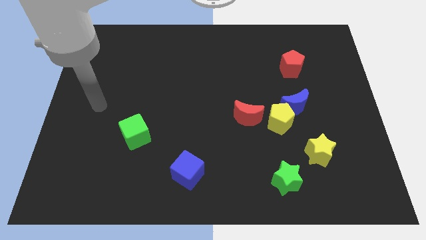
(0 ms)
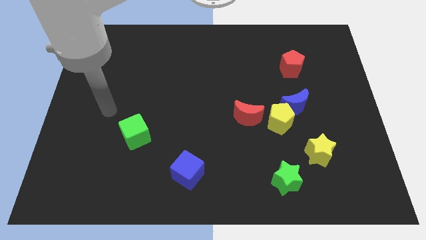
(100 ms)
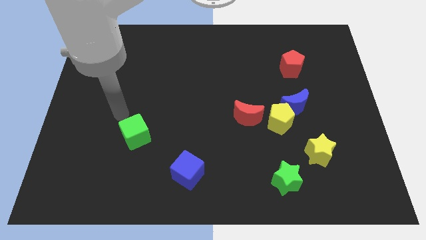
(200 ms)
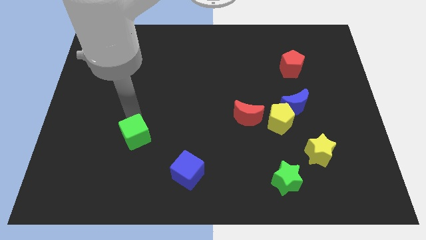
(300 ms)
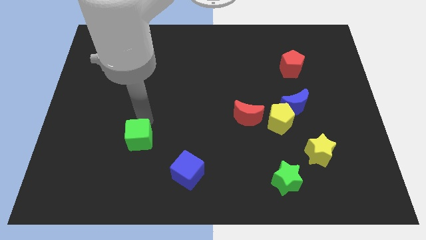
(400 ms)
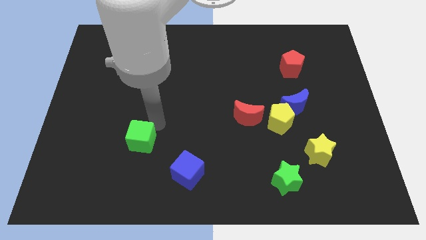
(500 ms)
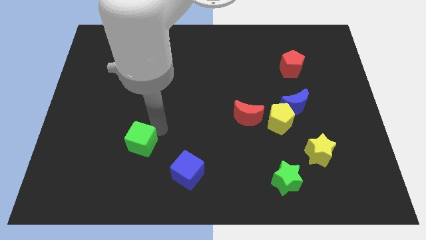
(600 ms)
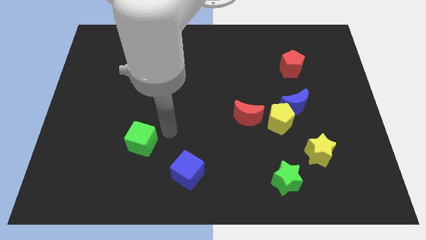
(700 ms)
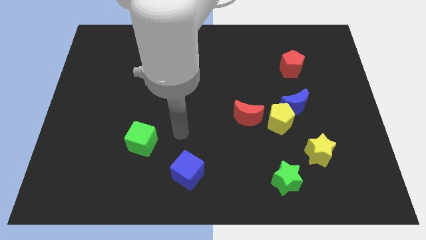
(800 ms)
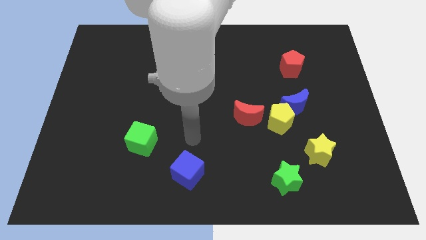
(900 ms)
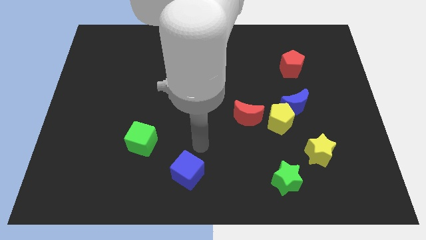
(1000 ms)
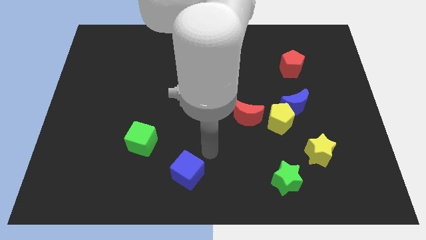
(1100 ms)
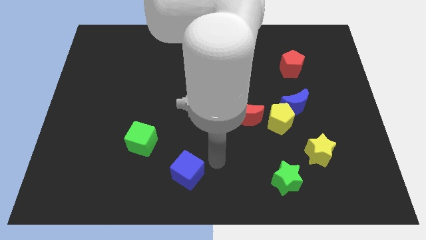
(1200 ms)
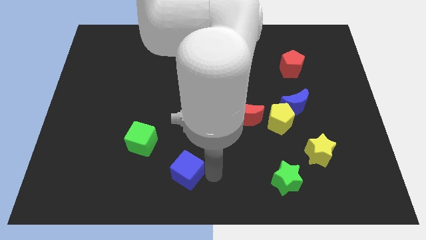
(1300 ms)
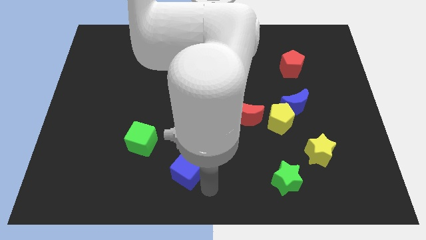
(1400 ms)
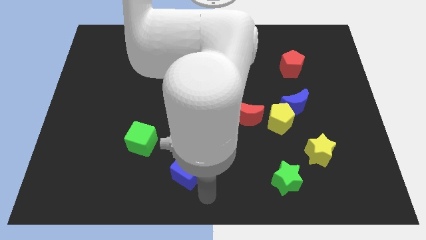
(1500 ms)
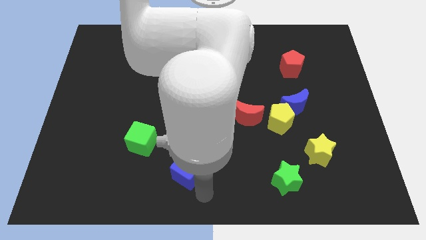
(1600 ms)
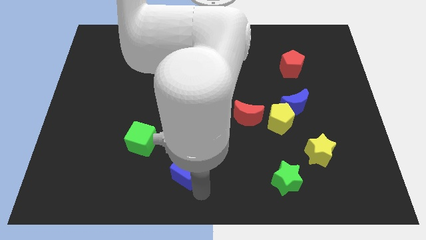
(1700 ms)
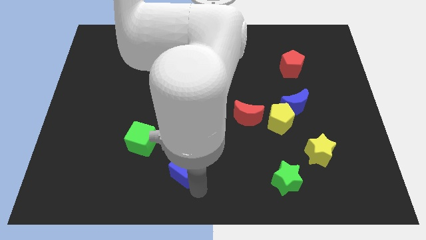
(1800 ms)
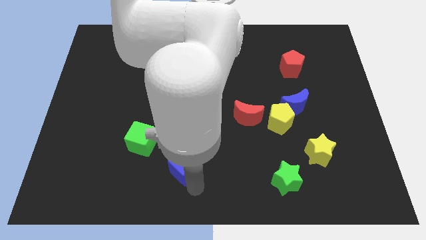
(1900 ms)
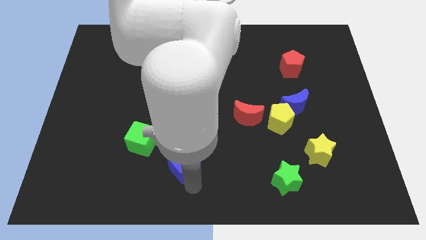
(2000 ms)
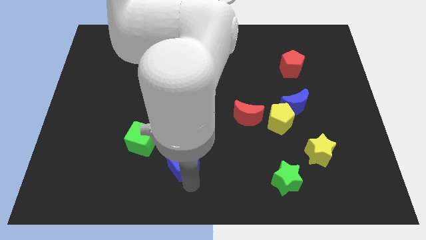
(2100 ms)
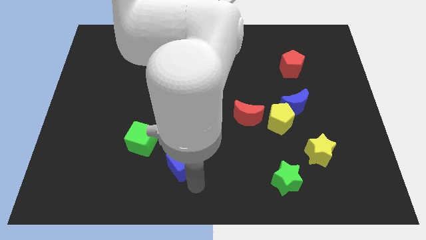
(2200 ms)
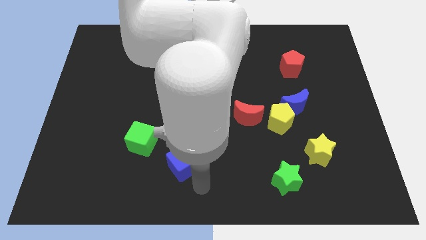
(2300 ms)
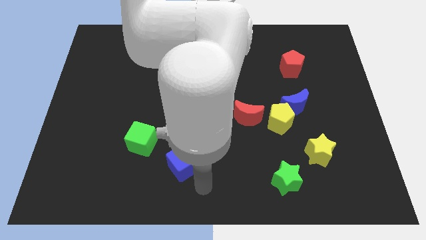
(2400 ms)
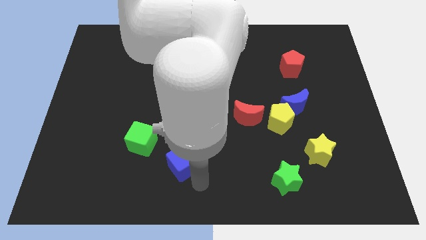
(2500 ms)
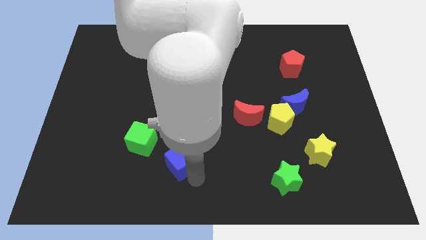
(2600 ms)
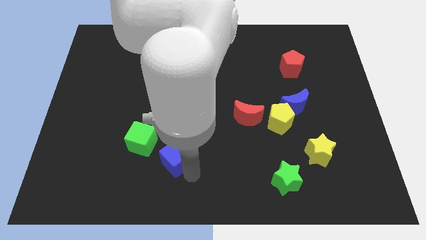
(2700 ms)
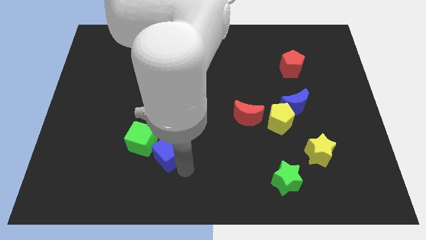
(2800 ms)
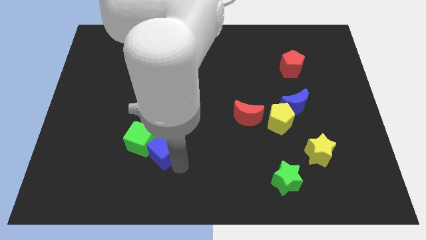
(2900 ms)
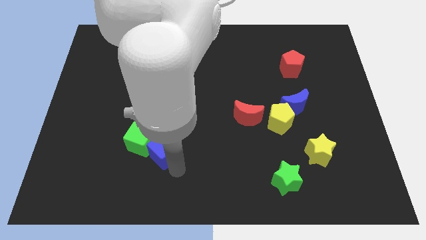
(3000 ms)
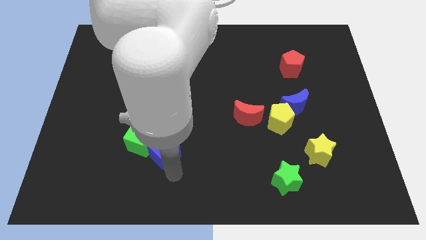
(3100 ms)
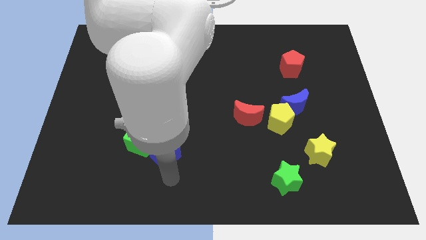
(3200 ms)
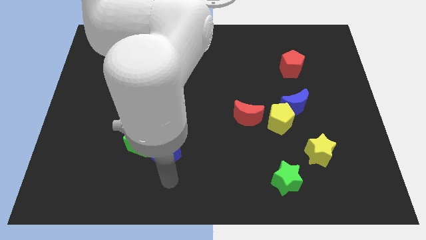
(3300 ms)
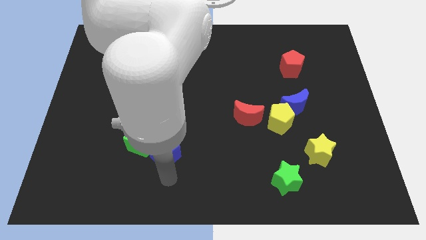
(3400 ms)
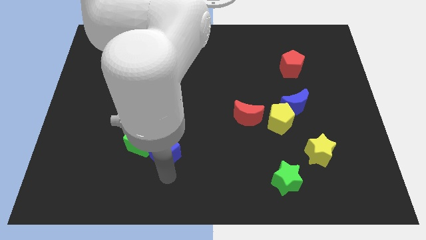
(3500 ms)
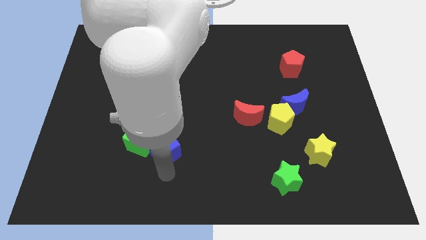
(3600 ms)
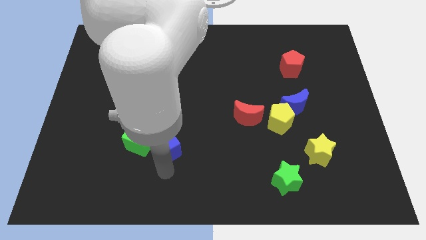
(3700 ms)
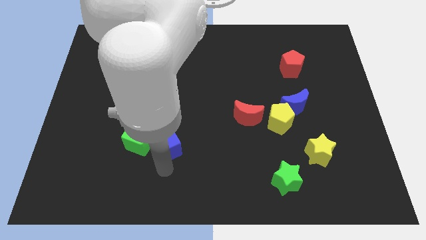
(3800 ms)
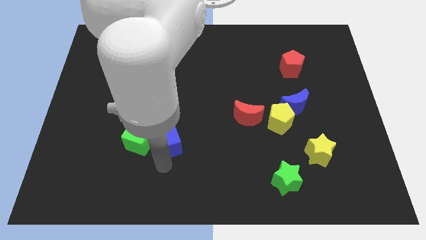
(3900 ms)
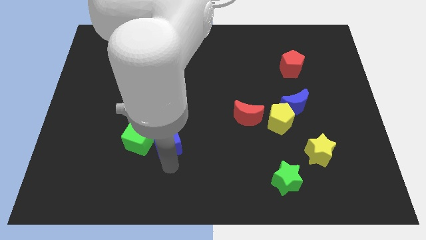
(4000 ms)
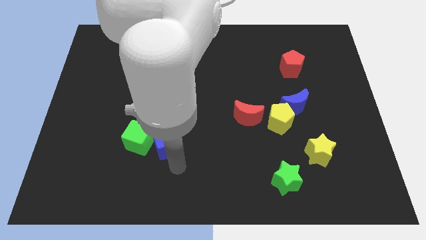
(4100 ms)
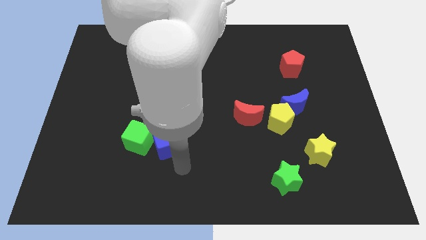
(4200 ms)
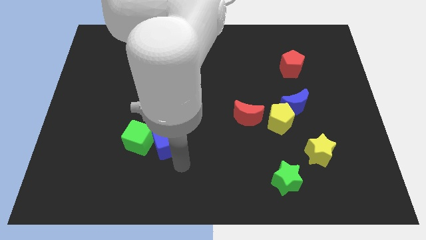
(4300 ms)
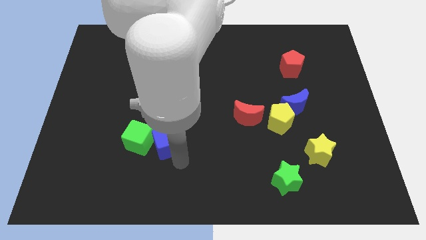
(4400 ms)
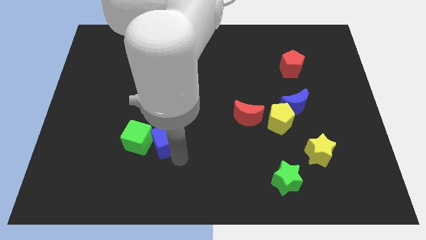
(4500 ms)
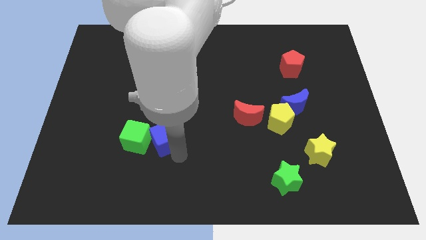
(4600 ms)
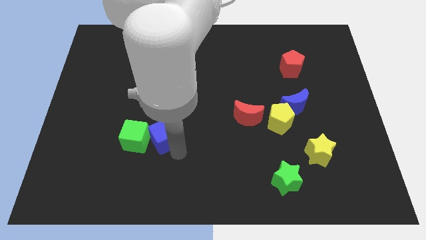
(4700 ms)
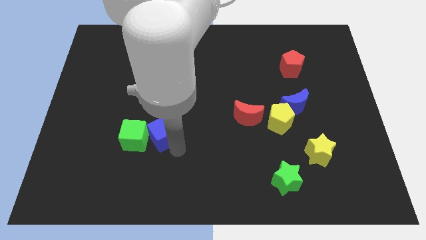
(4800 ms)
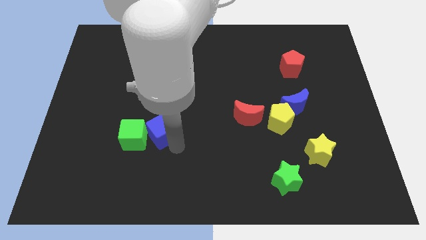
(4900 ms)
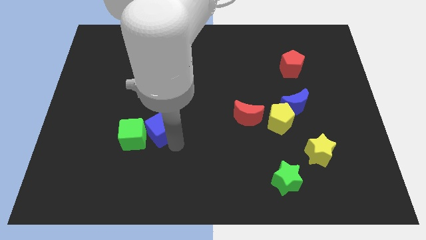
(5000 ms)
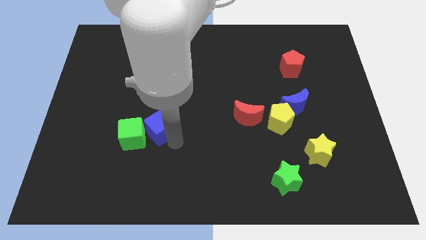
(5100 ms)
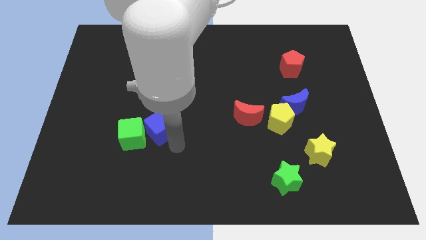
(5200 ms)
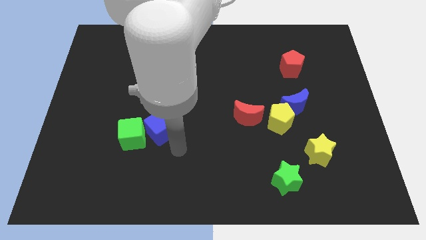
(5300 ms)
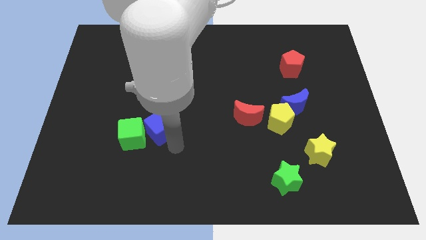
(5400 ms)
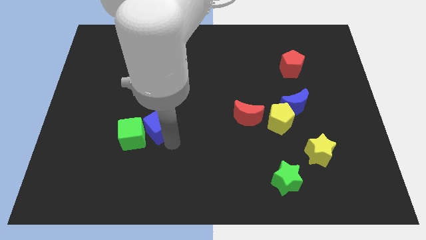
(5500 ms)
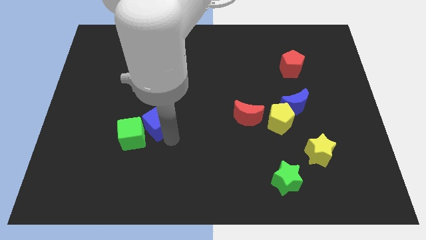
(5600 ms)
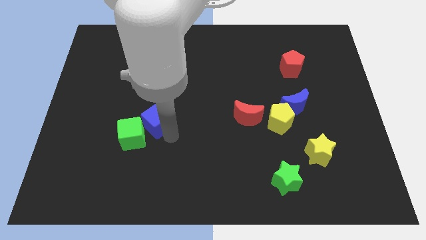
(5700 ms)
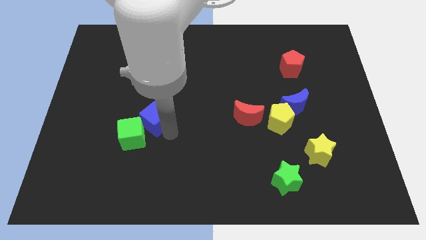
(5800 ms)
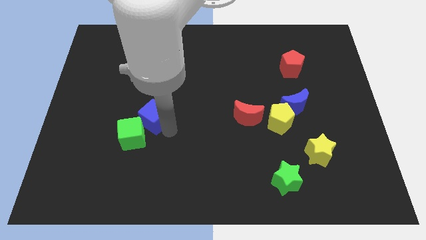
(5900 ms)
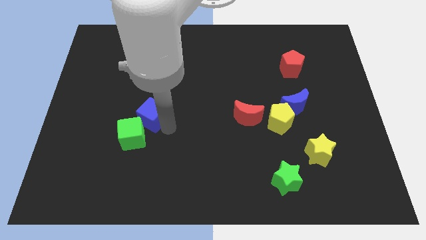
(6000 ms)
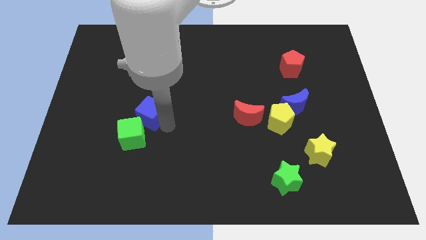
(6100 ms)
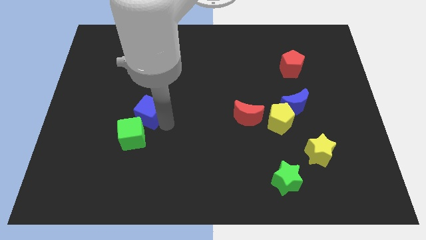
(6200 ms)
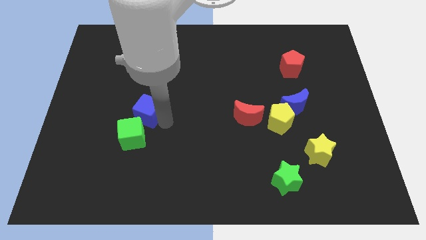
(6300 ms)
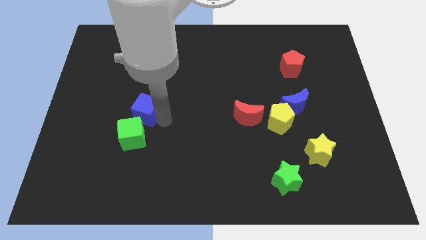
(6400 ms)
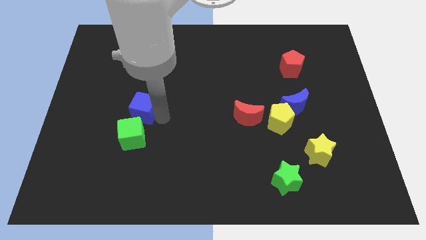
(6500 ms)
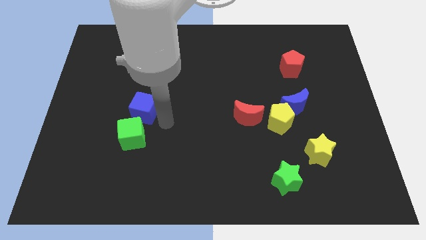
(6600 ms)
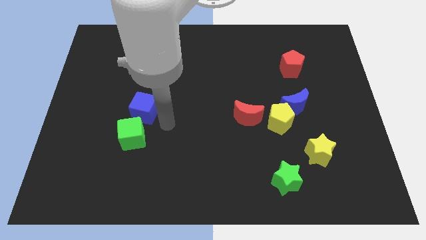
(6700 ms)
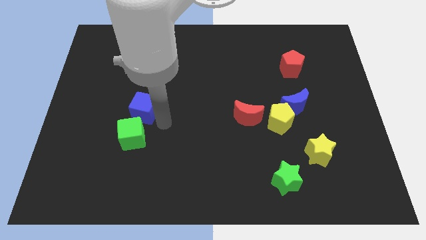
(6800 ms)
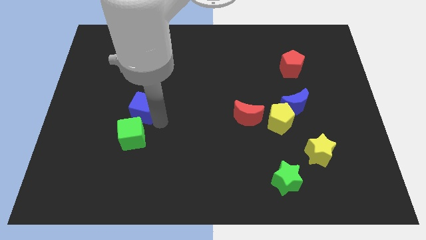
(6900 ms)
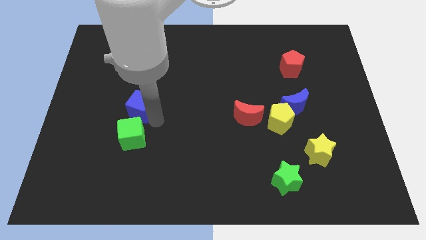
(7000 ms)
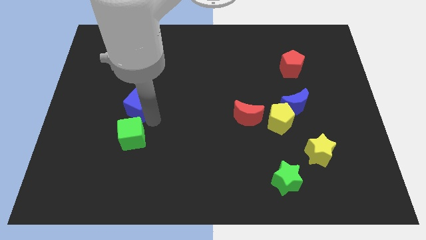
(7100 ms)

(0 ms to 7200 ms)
push the blue cube up and left

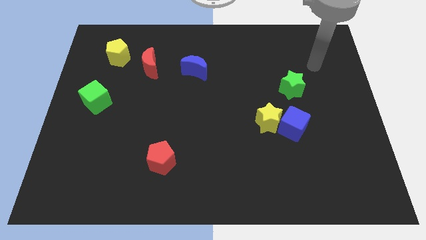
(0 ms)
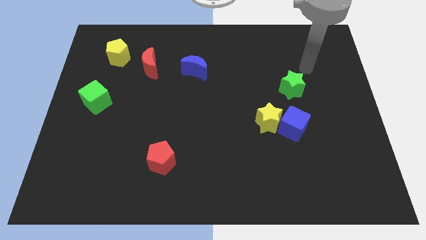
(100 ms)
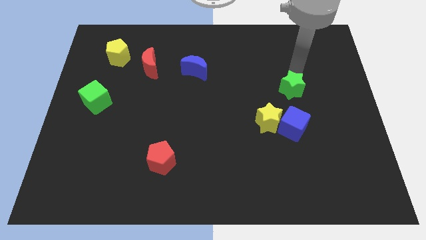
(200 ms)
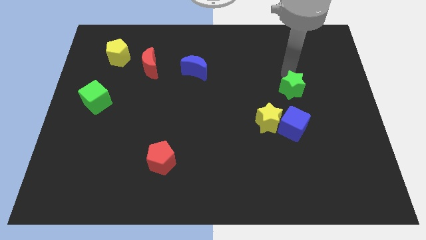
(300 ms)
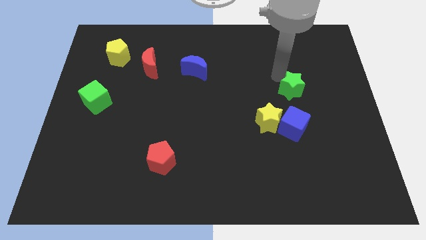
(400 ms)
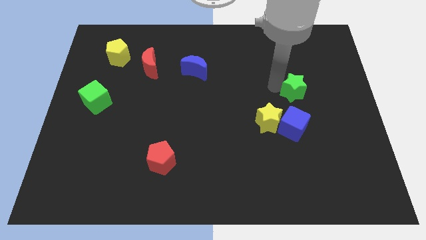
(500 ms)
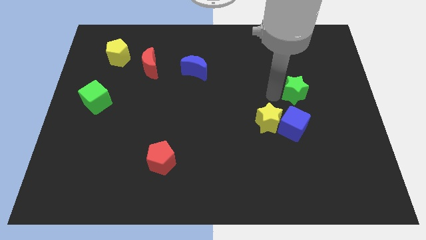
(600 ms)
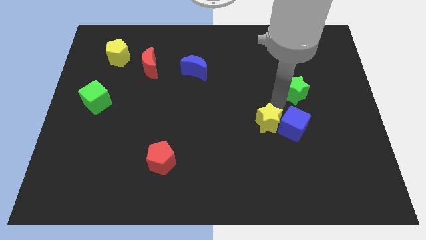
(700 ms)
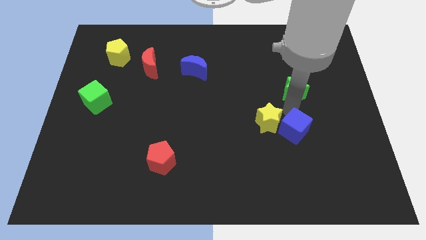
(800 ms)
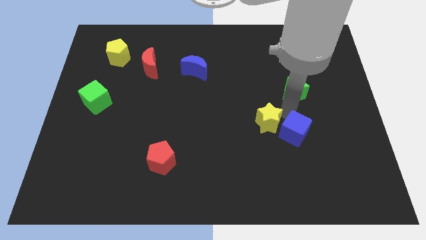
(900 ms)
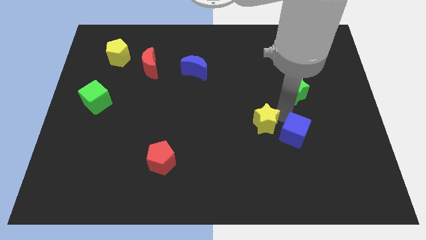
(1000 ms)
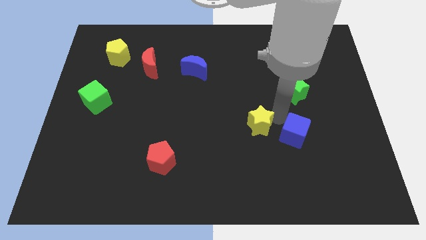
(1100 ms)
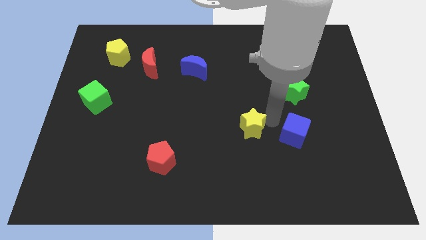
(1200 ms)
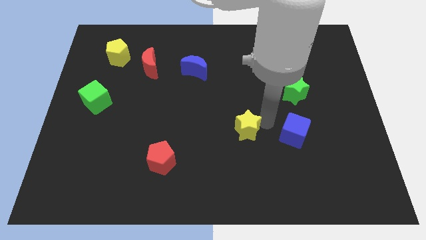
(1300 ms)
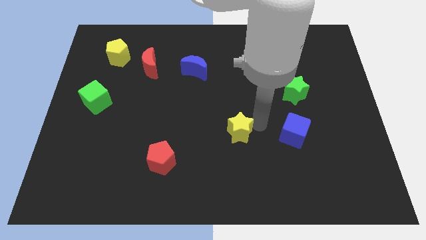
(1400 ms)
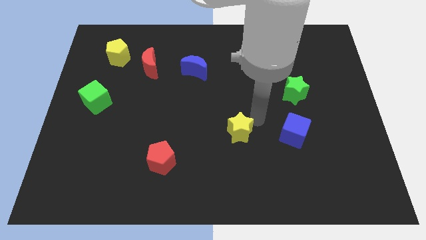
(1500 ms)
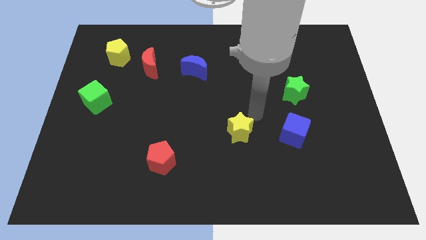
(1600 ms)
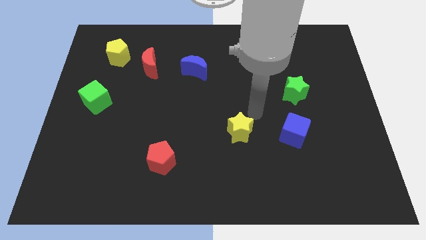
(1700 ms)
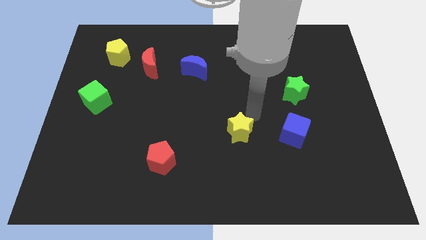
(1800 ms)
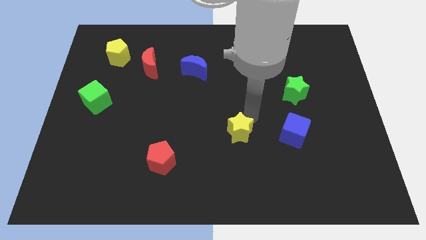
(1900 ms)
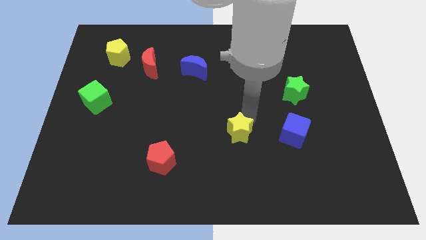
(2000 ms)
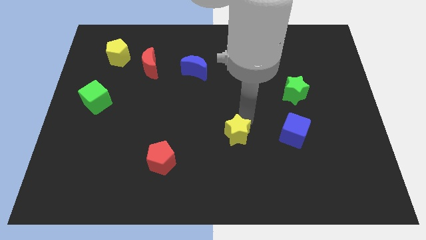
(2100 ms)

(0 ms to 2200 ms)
slide the yellow star a bit down and to the left
